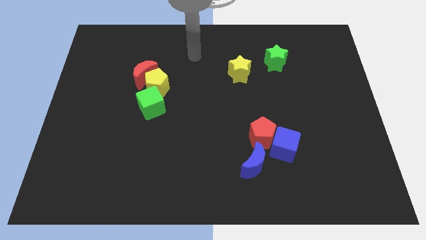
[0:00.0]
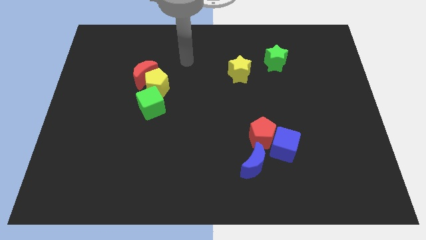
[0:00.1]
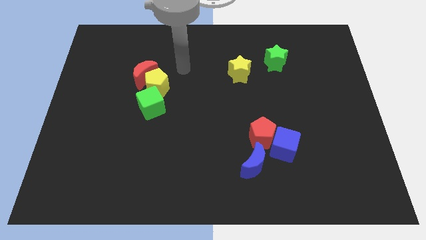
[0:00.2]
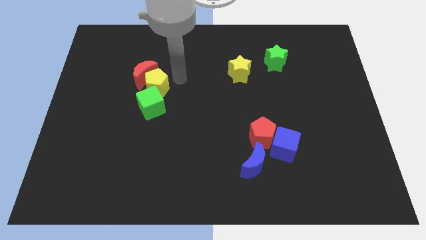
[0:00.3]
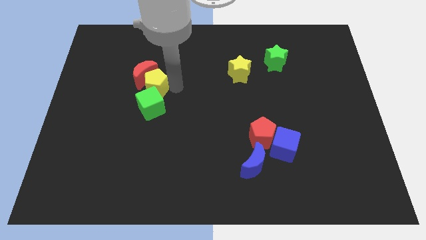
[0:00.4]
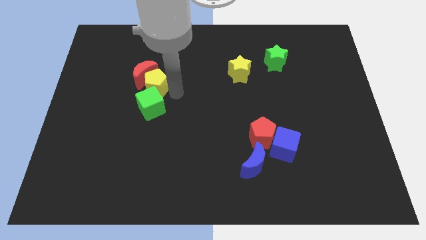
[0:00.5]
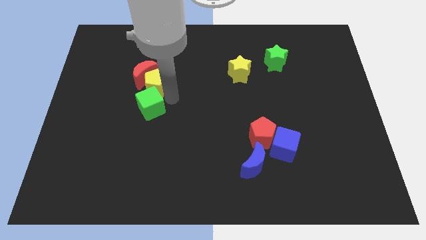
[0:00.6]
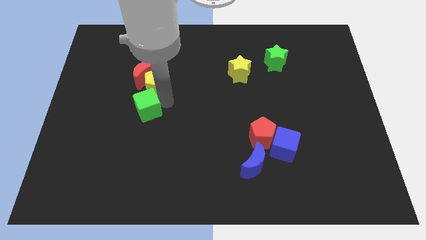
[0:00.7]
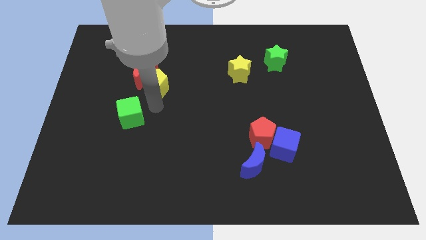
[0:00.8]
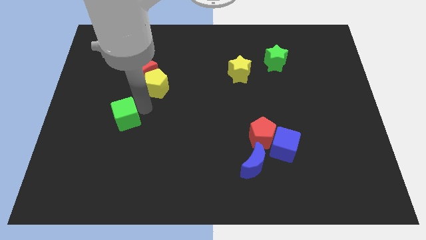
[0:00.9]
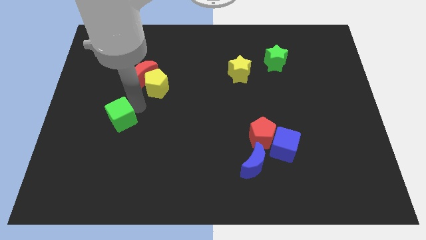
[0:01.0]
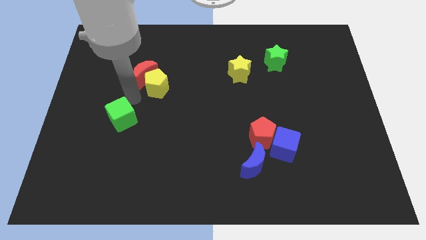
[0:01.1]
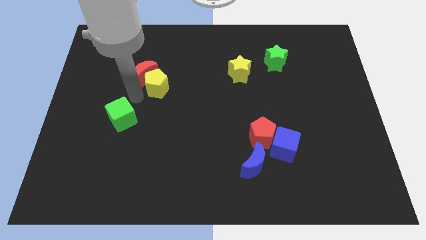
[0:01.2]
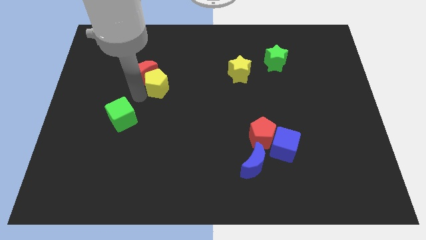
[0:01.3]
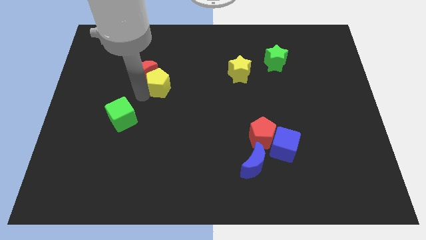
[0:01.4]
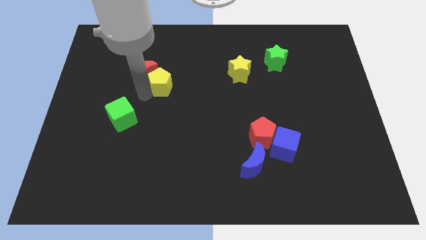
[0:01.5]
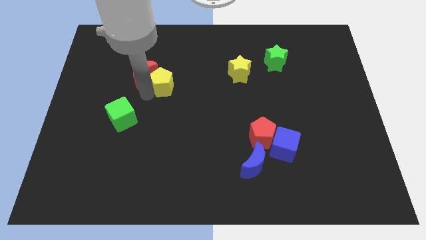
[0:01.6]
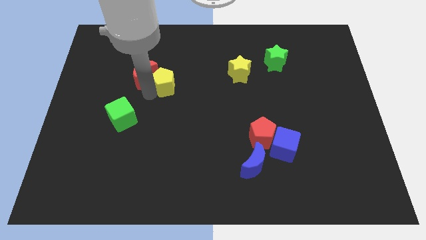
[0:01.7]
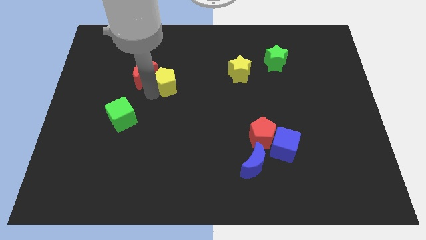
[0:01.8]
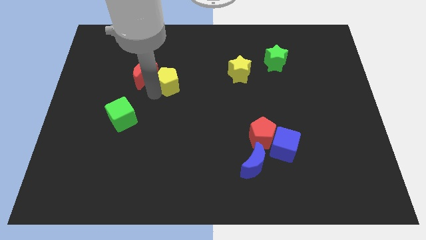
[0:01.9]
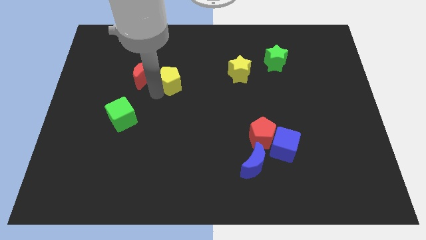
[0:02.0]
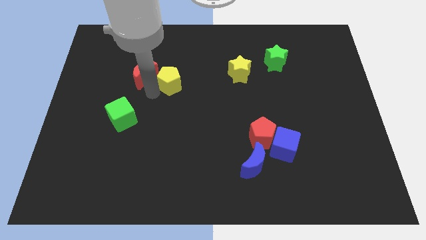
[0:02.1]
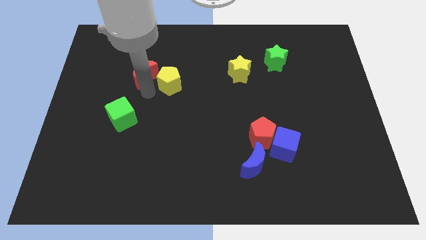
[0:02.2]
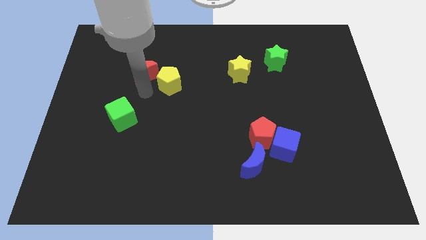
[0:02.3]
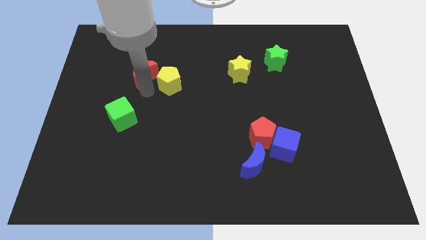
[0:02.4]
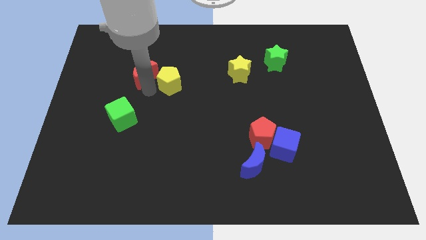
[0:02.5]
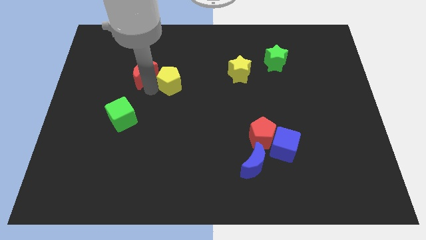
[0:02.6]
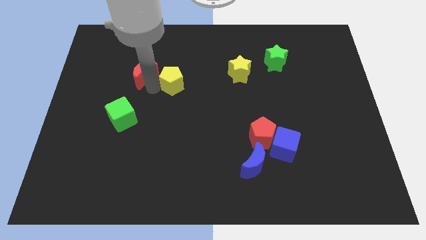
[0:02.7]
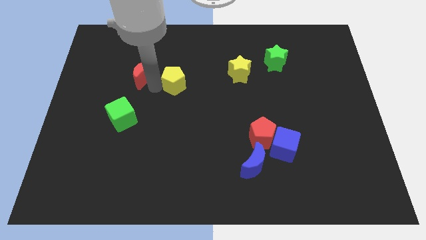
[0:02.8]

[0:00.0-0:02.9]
move the yellow pentagon away from the red moon and green cube

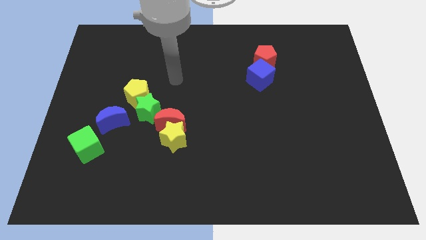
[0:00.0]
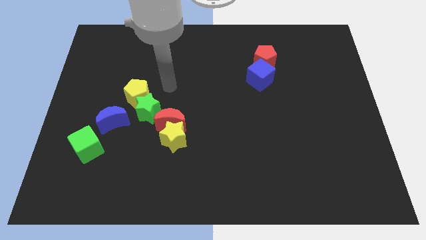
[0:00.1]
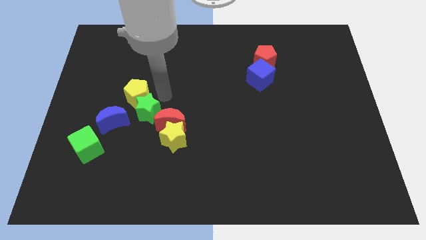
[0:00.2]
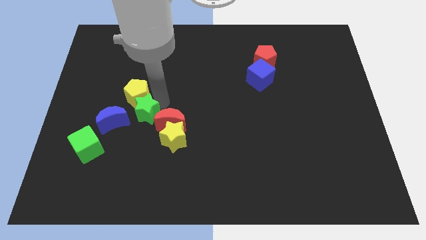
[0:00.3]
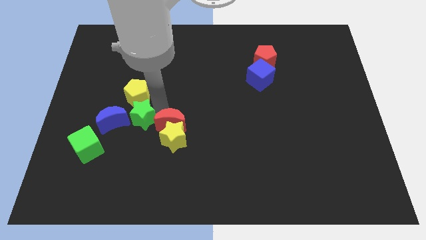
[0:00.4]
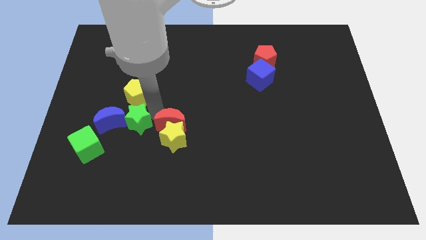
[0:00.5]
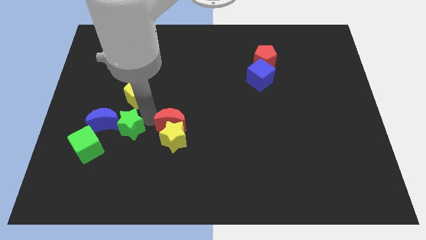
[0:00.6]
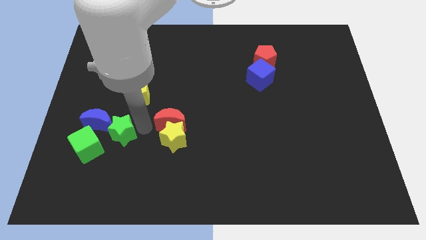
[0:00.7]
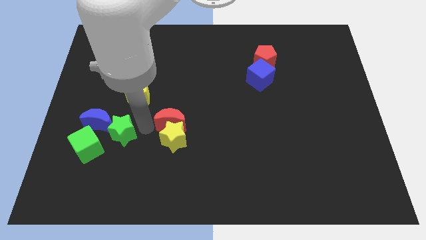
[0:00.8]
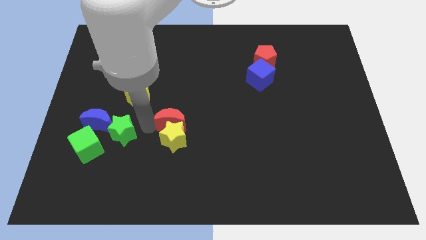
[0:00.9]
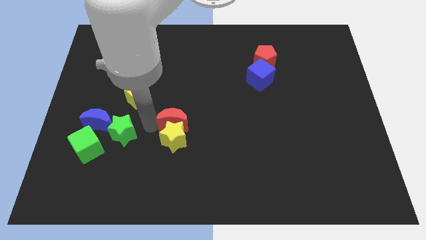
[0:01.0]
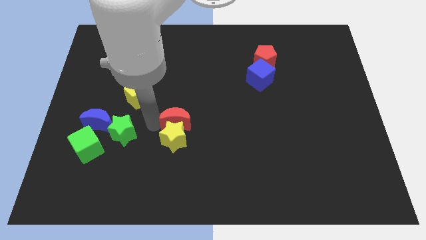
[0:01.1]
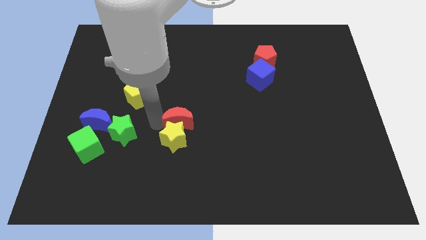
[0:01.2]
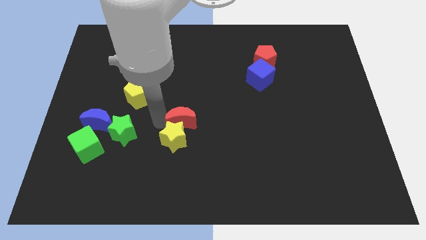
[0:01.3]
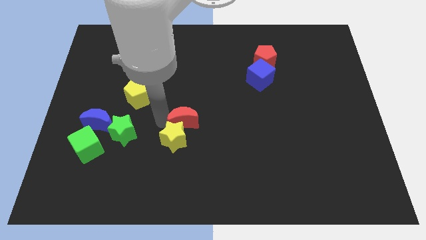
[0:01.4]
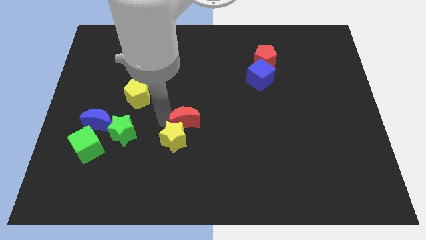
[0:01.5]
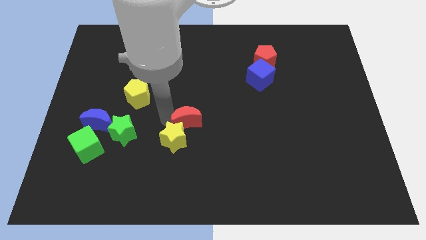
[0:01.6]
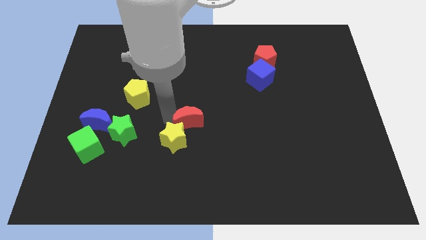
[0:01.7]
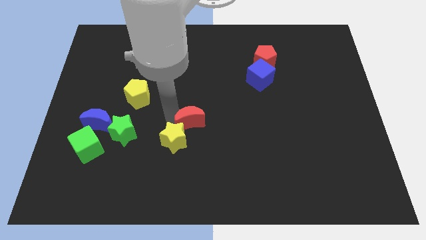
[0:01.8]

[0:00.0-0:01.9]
separate the red moon from the yellow star and green star

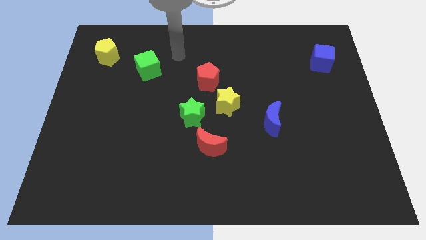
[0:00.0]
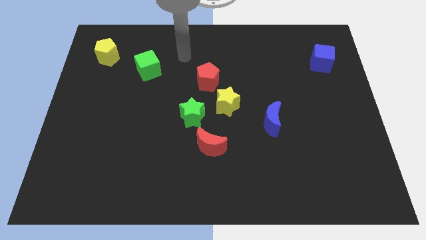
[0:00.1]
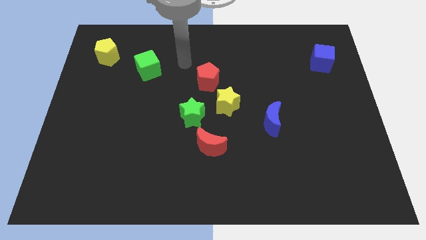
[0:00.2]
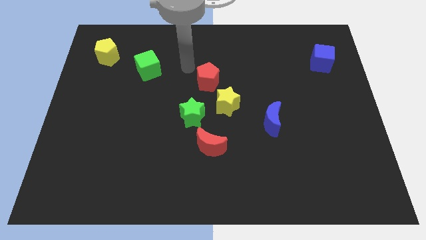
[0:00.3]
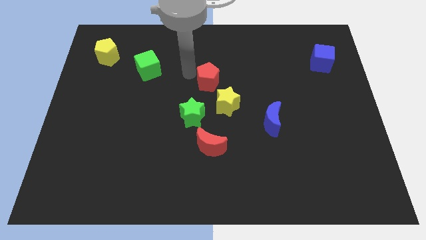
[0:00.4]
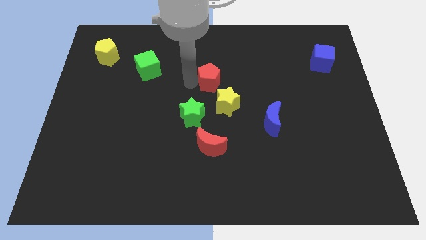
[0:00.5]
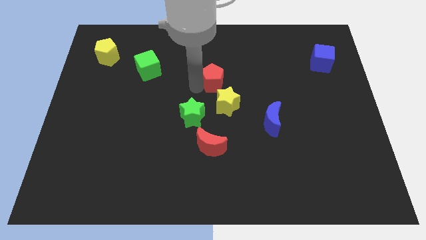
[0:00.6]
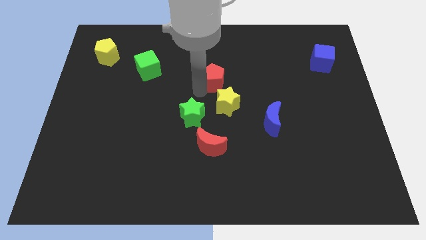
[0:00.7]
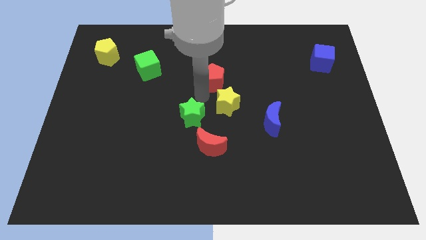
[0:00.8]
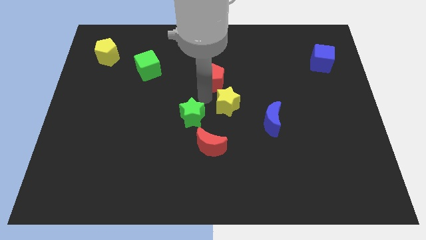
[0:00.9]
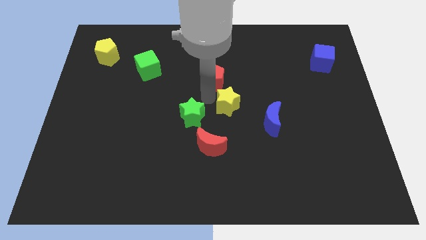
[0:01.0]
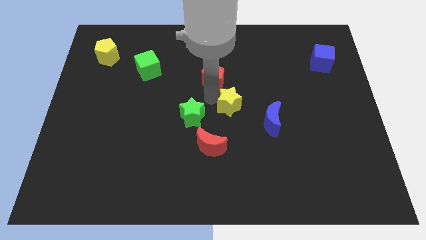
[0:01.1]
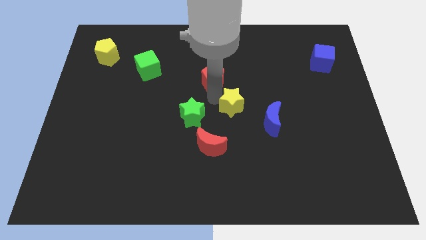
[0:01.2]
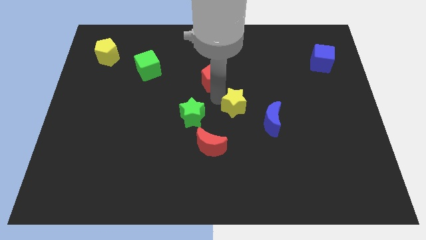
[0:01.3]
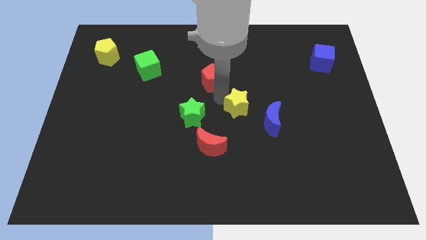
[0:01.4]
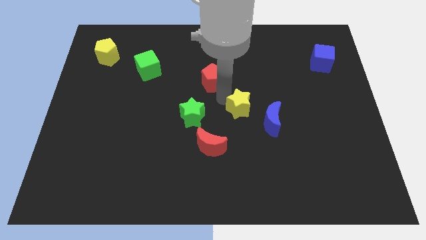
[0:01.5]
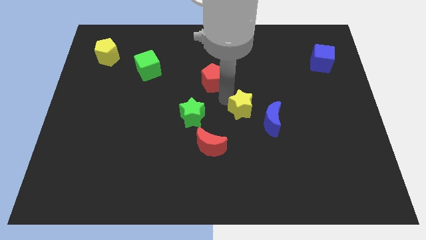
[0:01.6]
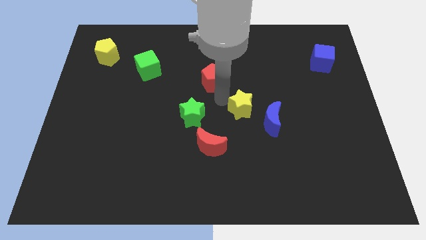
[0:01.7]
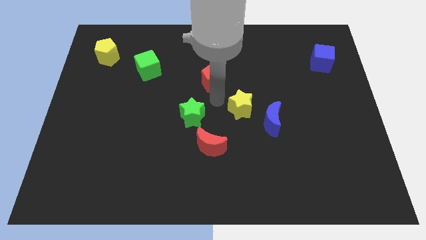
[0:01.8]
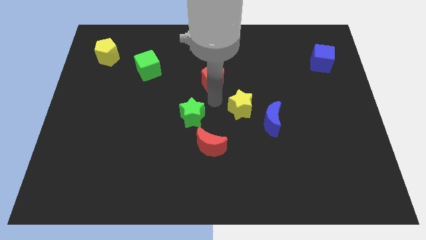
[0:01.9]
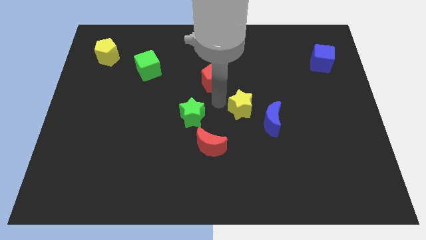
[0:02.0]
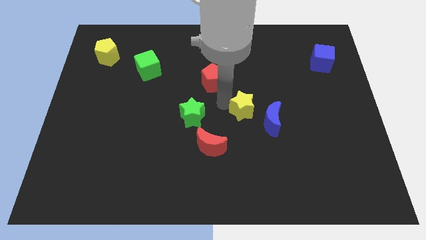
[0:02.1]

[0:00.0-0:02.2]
separate the yellow star from the green star and red pentagon

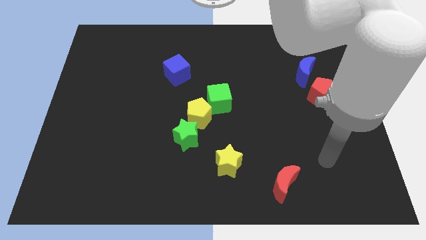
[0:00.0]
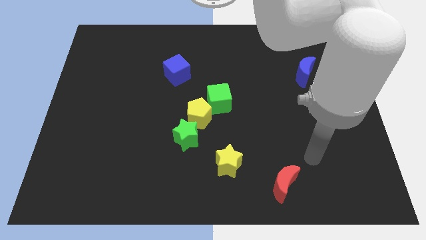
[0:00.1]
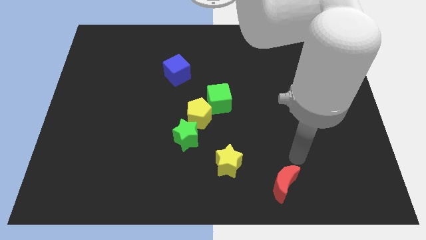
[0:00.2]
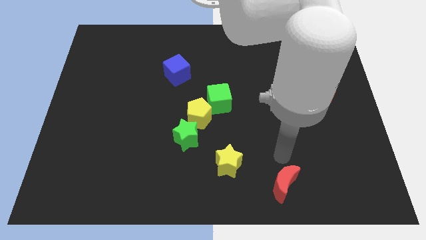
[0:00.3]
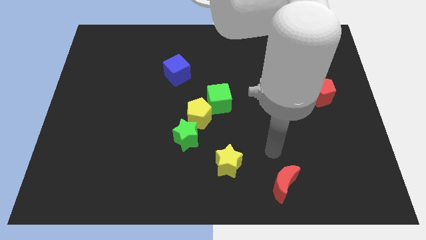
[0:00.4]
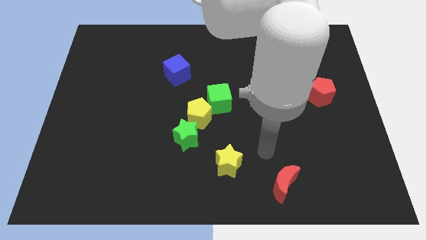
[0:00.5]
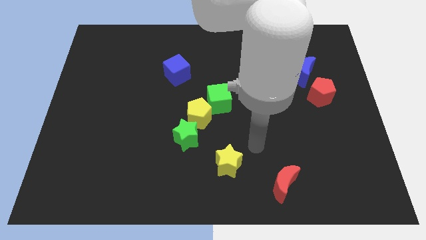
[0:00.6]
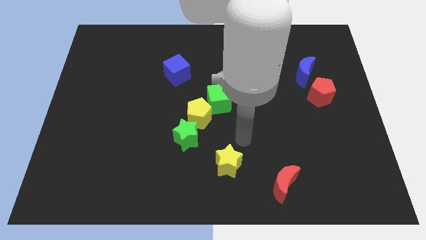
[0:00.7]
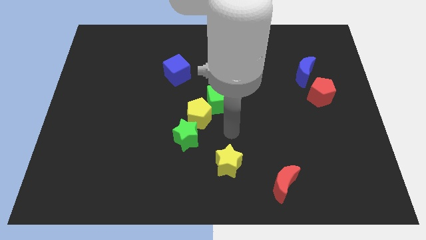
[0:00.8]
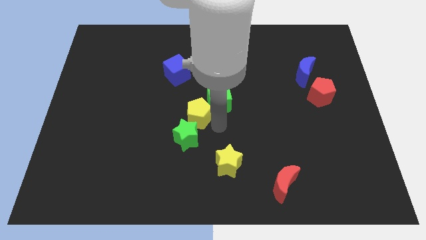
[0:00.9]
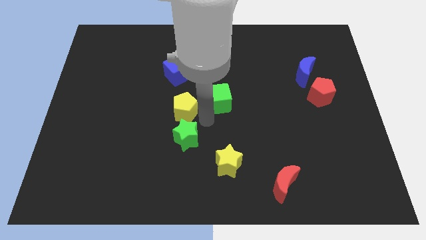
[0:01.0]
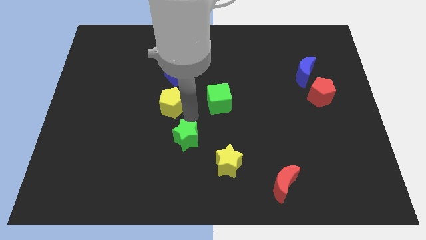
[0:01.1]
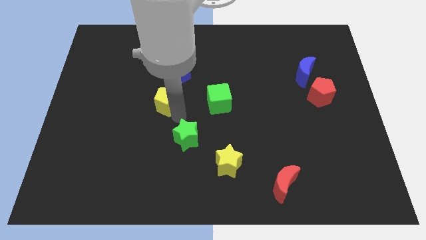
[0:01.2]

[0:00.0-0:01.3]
pull the green star apart from the yellow pentagon

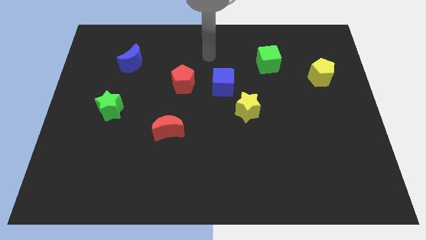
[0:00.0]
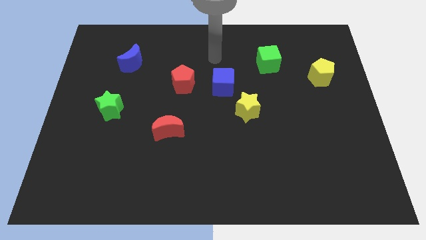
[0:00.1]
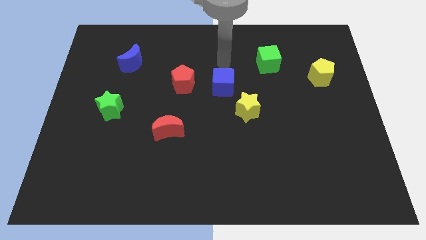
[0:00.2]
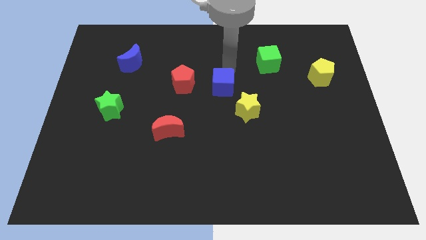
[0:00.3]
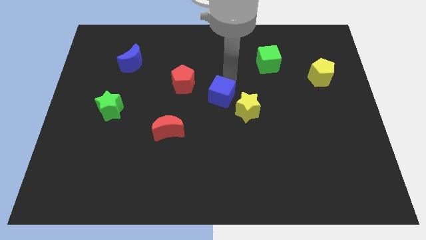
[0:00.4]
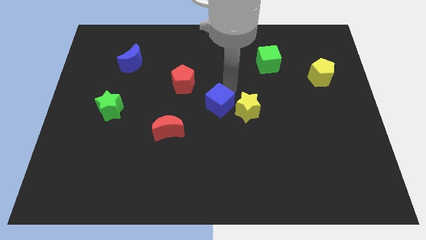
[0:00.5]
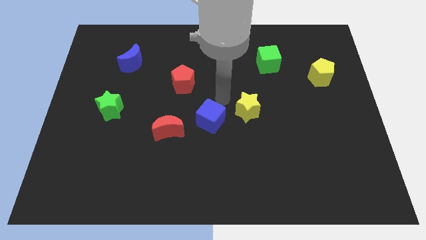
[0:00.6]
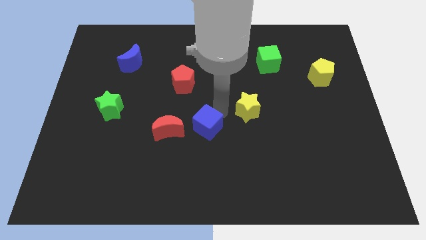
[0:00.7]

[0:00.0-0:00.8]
pull the yellow star apart from the blue cube

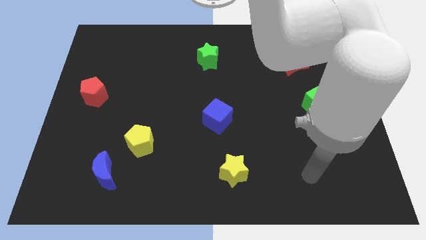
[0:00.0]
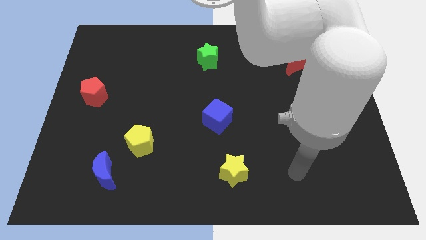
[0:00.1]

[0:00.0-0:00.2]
separate the blue moon from the yellow pentagon
